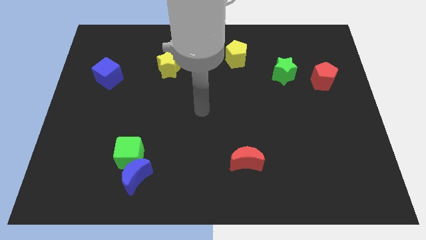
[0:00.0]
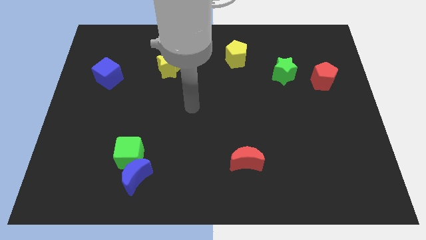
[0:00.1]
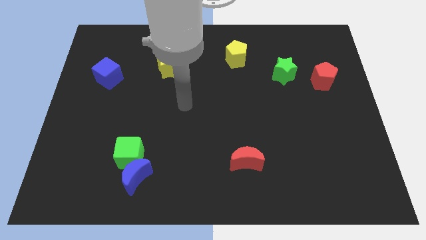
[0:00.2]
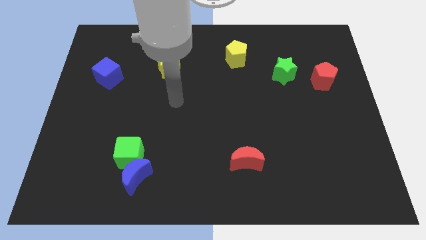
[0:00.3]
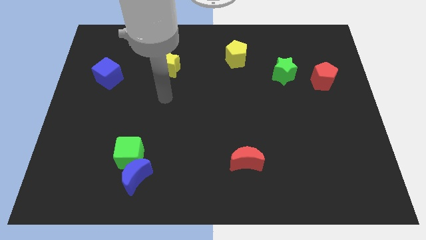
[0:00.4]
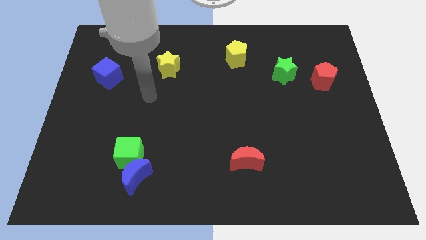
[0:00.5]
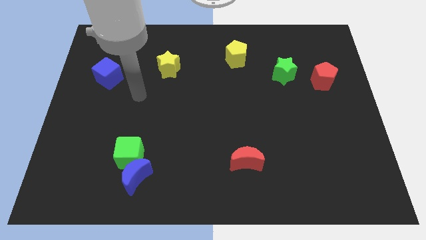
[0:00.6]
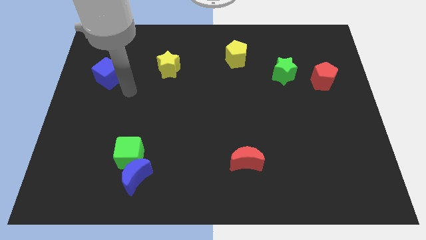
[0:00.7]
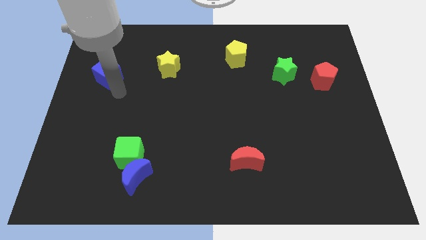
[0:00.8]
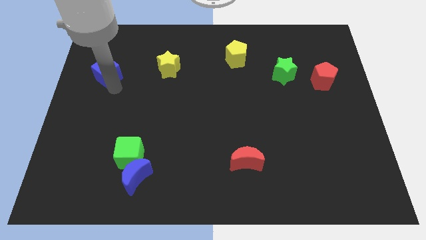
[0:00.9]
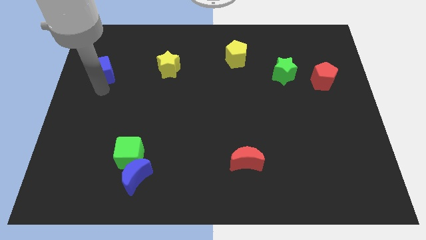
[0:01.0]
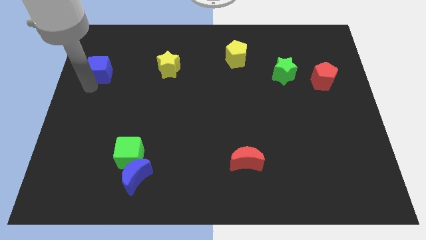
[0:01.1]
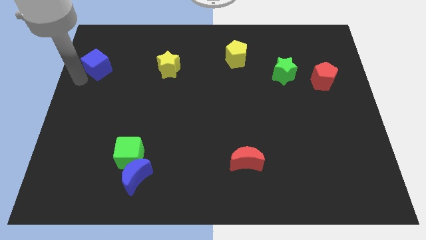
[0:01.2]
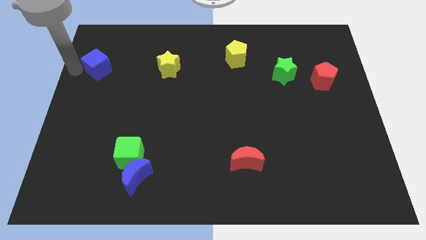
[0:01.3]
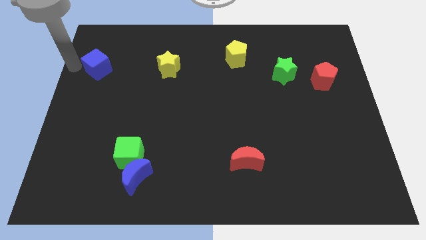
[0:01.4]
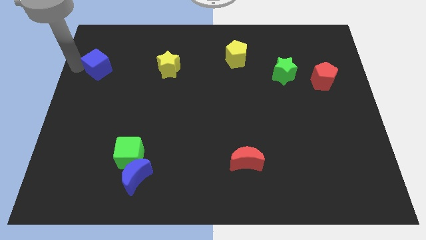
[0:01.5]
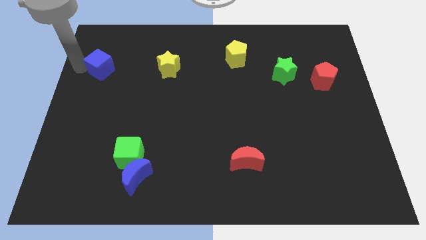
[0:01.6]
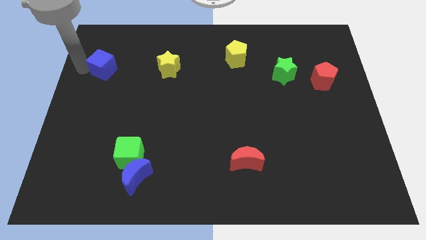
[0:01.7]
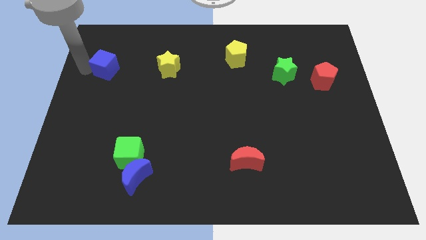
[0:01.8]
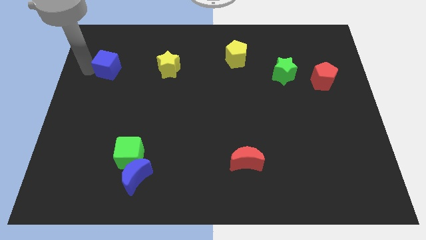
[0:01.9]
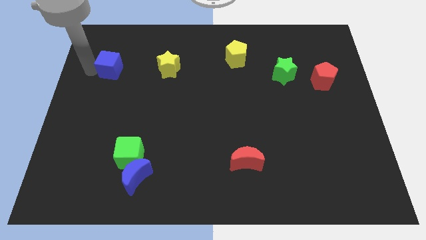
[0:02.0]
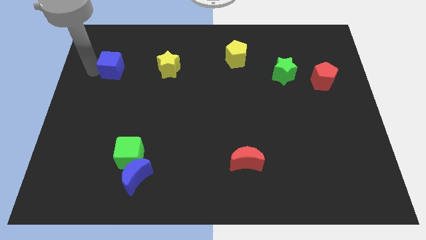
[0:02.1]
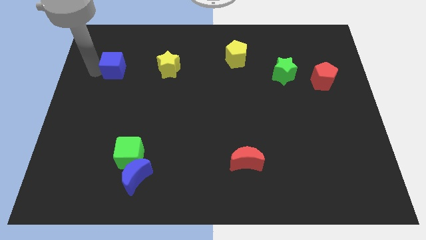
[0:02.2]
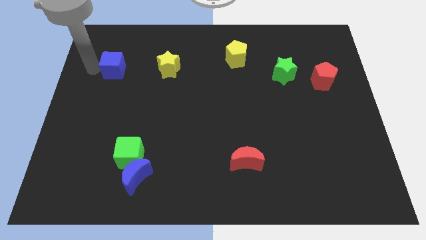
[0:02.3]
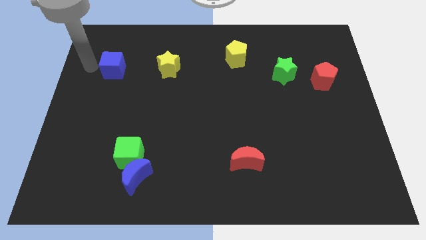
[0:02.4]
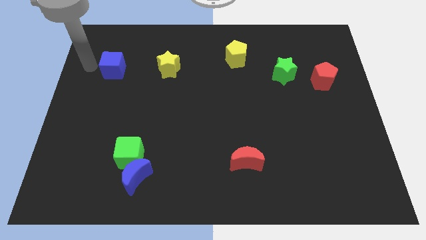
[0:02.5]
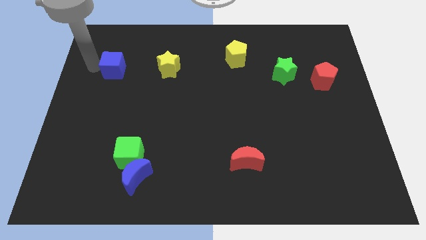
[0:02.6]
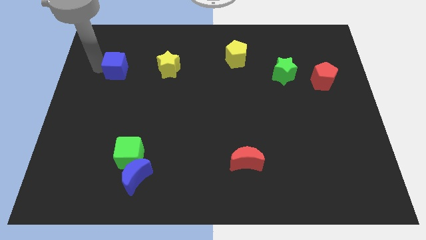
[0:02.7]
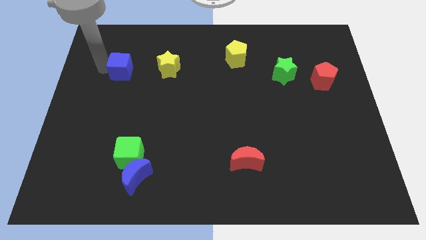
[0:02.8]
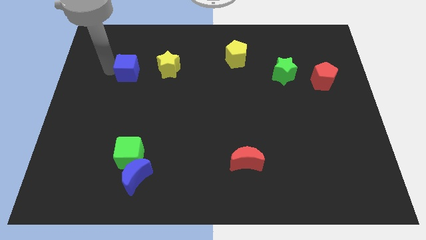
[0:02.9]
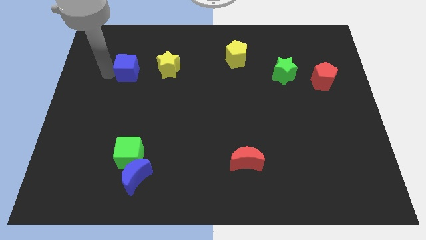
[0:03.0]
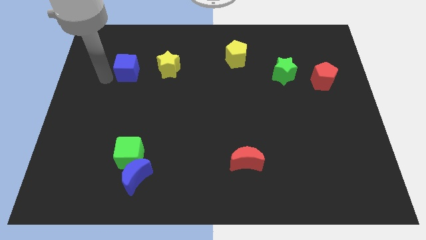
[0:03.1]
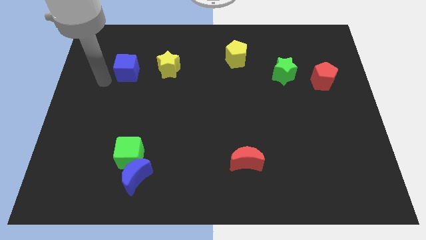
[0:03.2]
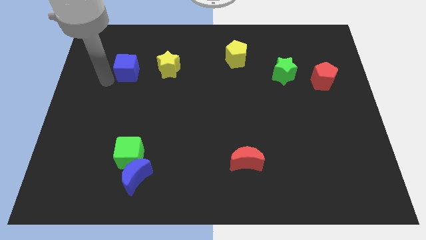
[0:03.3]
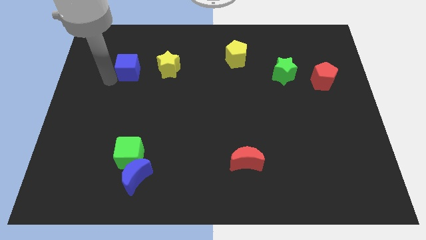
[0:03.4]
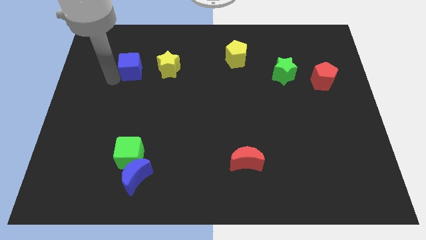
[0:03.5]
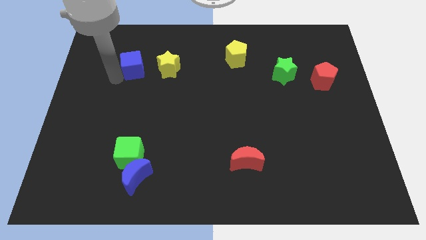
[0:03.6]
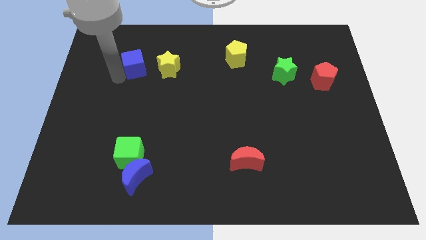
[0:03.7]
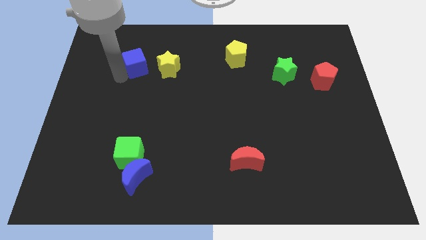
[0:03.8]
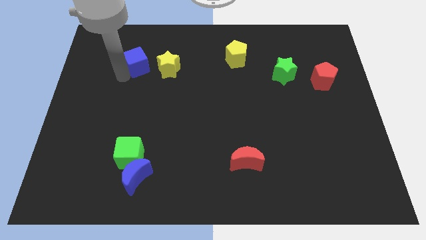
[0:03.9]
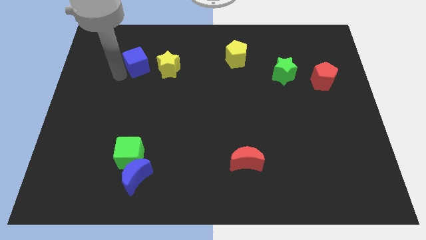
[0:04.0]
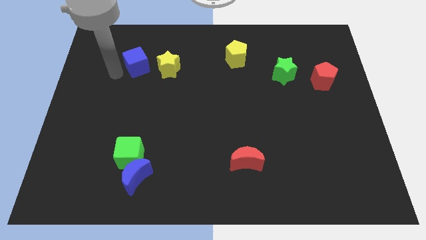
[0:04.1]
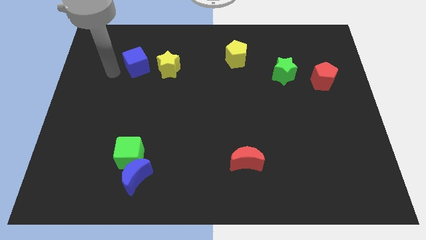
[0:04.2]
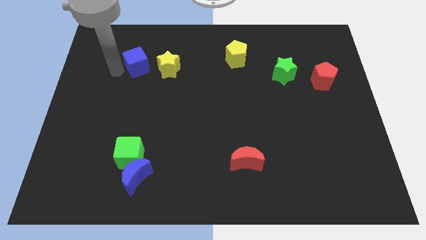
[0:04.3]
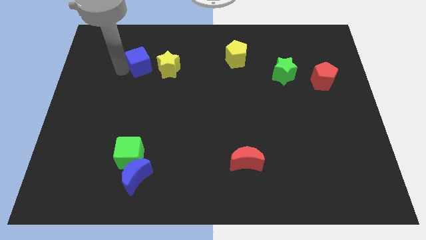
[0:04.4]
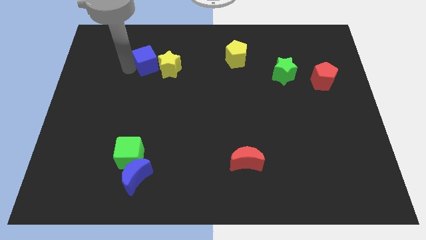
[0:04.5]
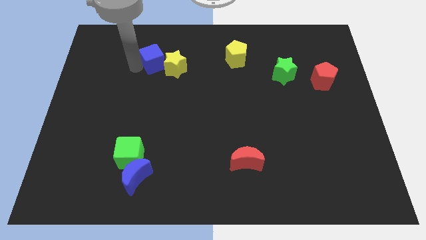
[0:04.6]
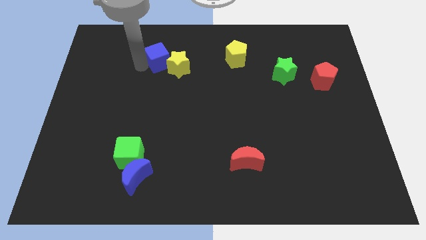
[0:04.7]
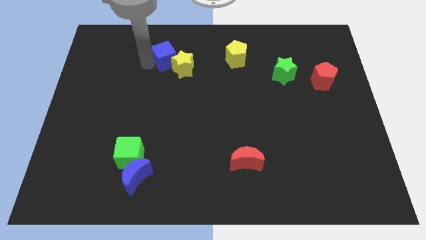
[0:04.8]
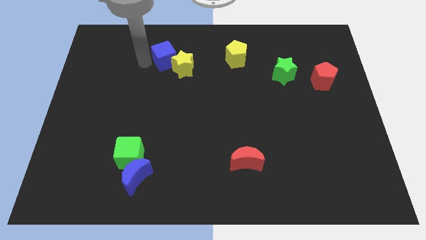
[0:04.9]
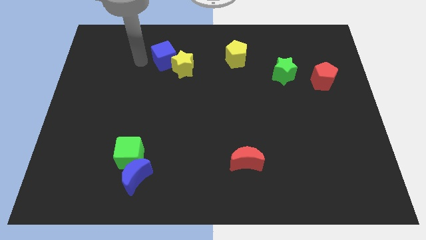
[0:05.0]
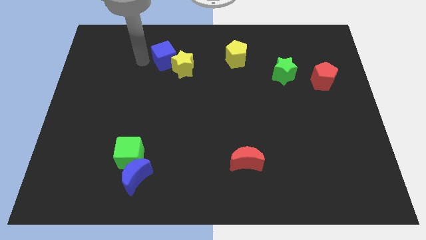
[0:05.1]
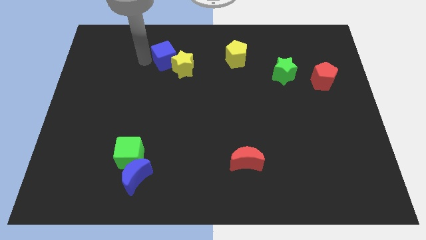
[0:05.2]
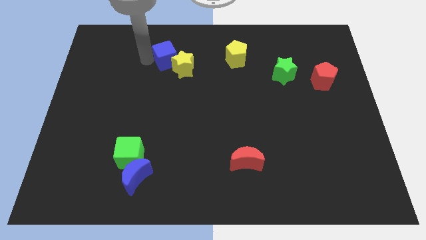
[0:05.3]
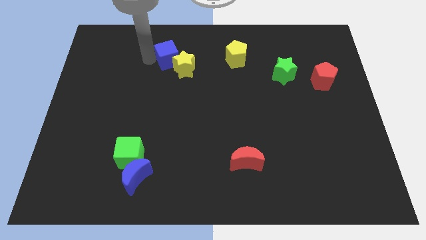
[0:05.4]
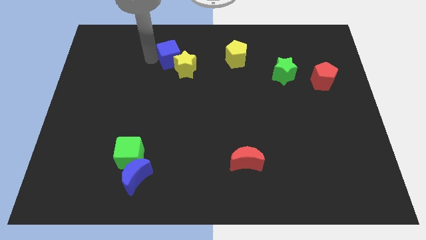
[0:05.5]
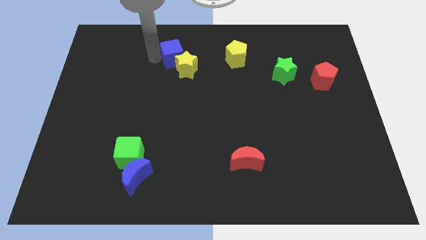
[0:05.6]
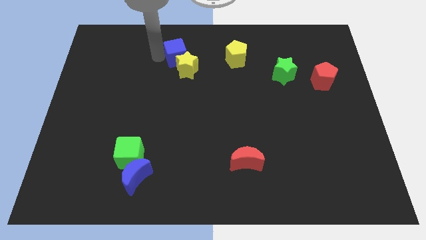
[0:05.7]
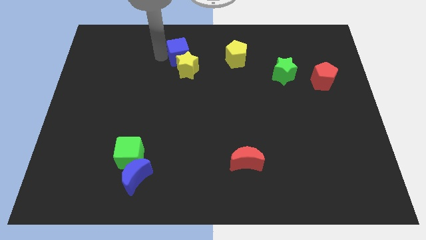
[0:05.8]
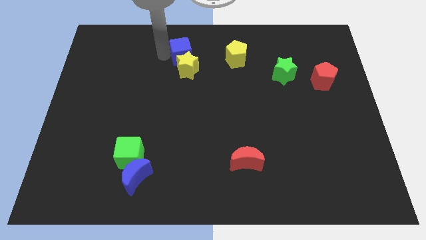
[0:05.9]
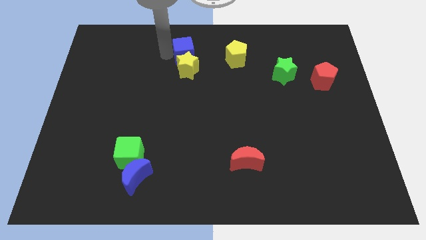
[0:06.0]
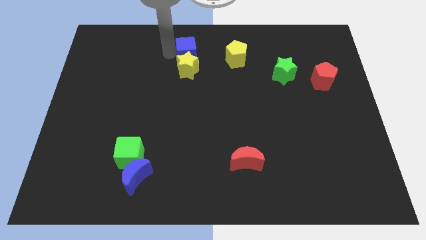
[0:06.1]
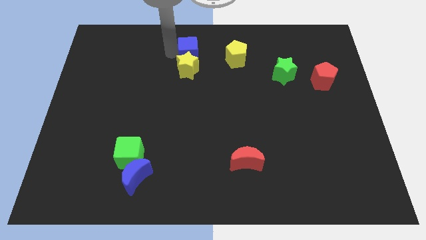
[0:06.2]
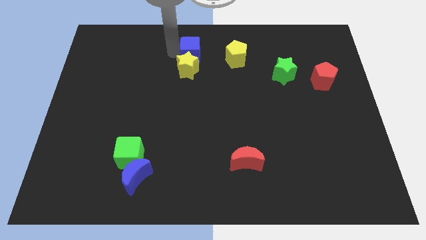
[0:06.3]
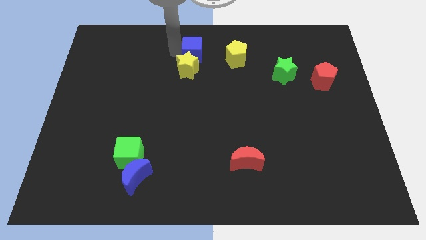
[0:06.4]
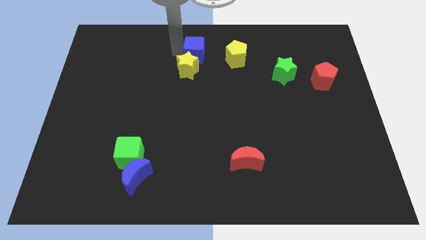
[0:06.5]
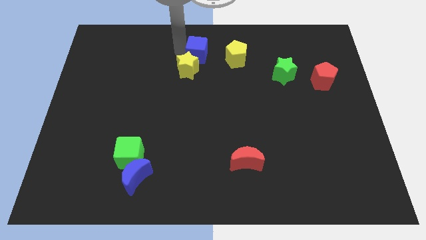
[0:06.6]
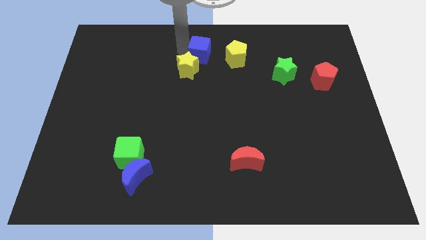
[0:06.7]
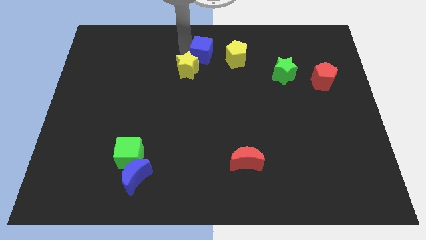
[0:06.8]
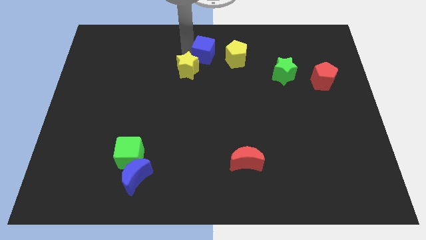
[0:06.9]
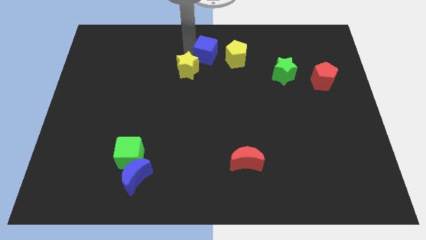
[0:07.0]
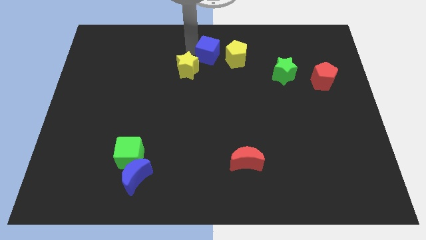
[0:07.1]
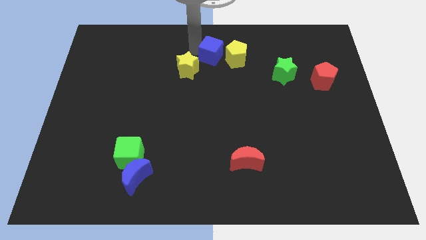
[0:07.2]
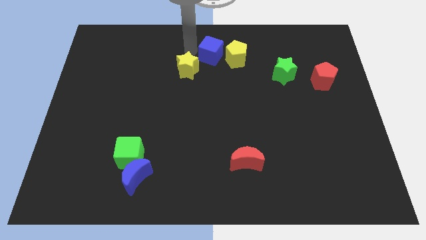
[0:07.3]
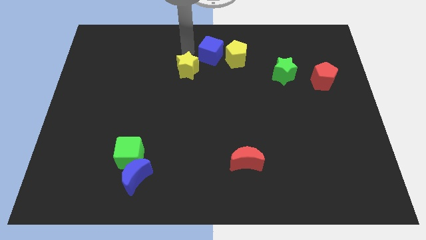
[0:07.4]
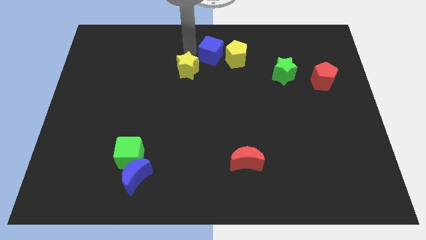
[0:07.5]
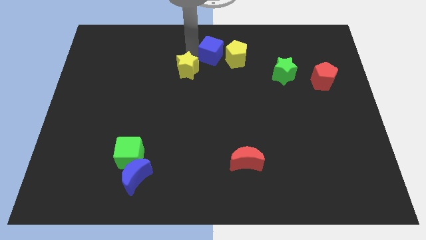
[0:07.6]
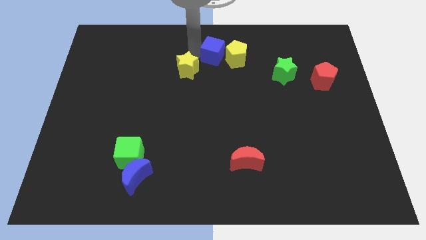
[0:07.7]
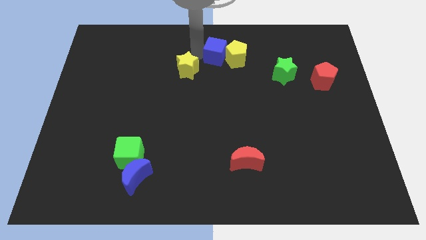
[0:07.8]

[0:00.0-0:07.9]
move the blue cube next to the yellow pentagon
